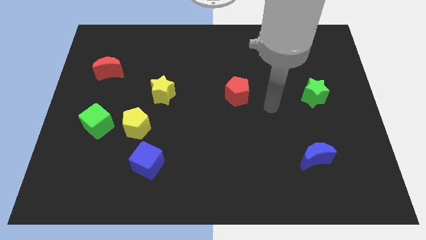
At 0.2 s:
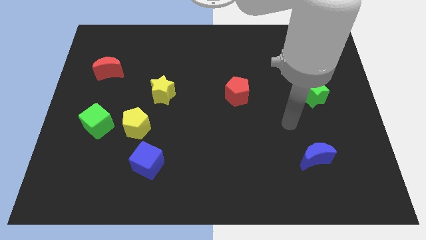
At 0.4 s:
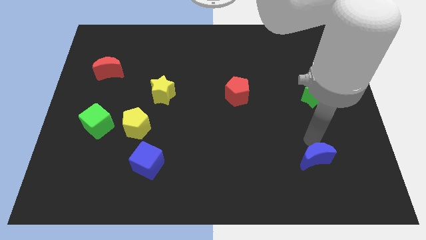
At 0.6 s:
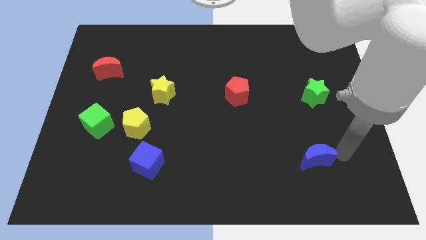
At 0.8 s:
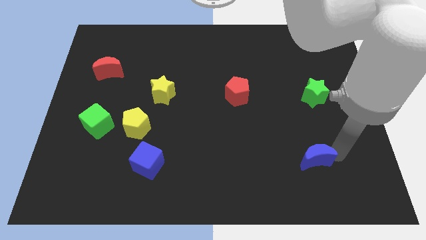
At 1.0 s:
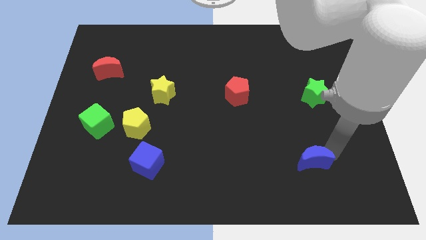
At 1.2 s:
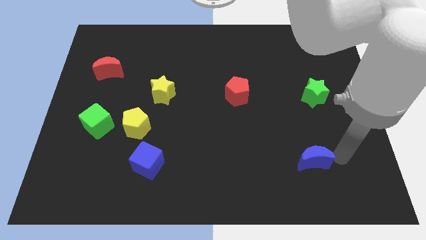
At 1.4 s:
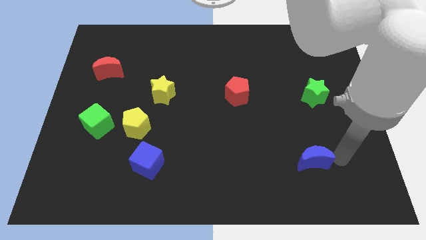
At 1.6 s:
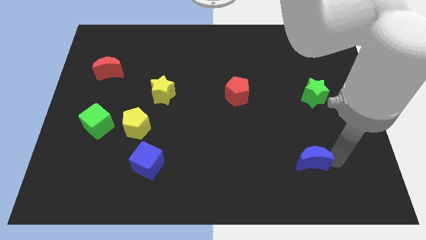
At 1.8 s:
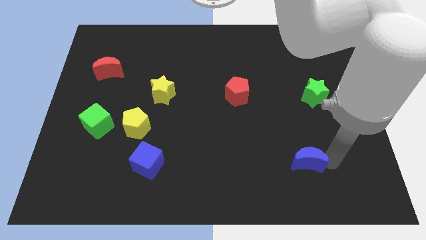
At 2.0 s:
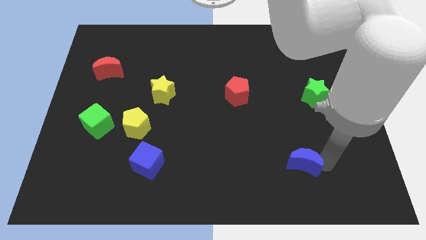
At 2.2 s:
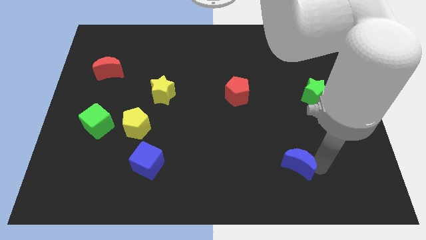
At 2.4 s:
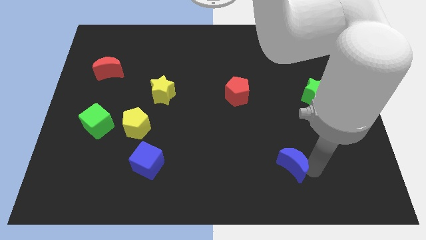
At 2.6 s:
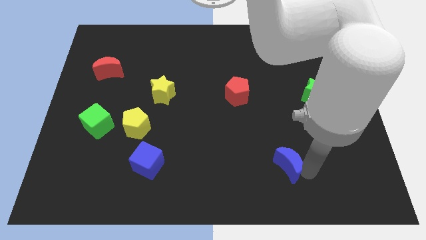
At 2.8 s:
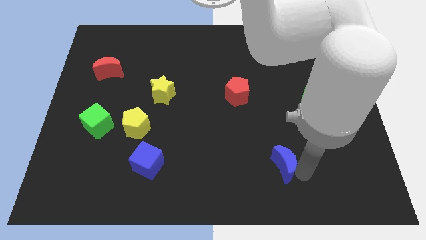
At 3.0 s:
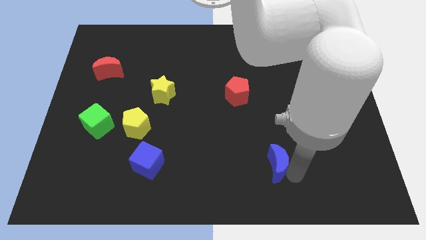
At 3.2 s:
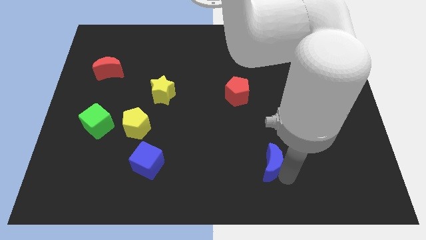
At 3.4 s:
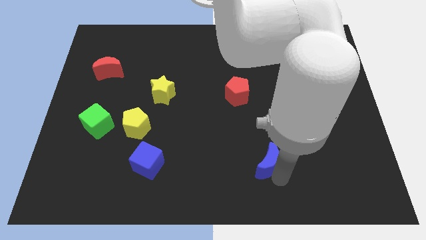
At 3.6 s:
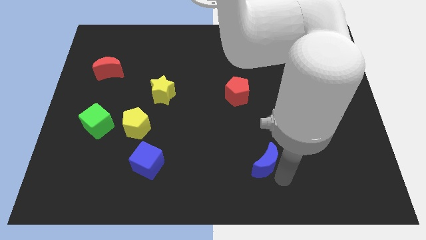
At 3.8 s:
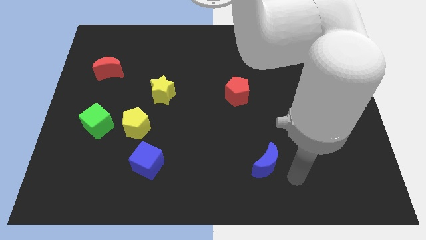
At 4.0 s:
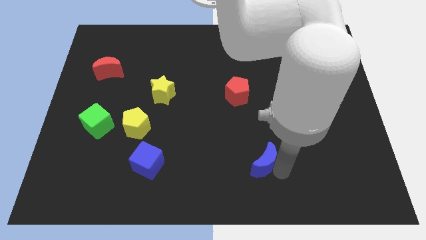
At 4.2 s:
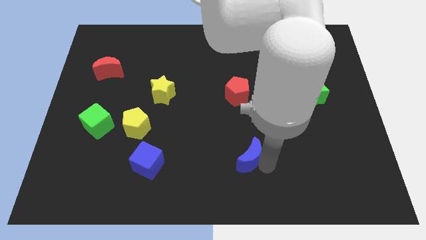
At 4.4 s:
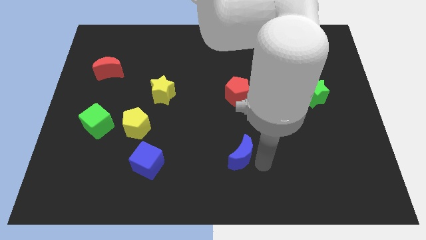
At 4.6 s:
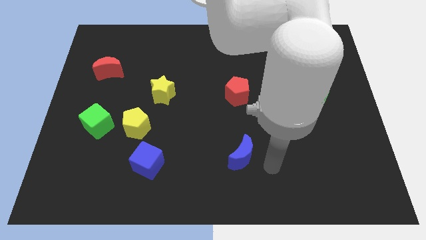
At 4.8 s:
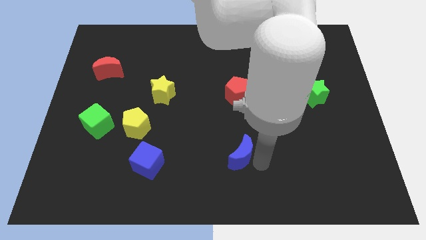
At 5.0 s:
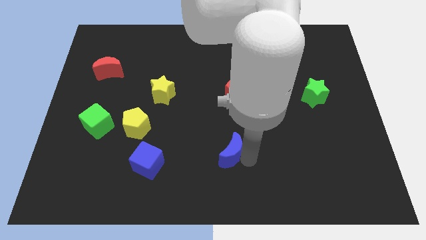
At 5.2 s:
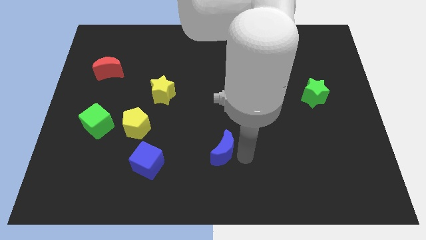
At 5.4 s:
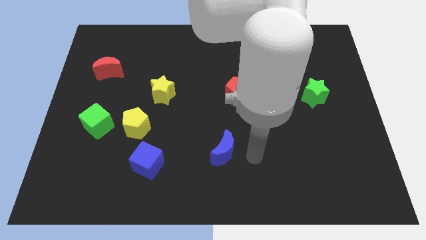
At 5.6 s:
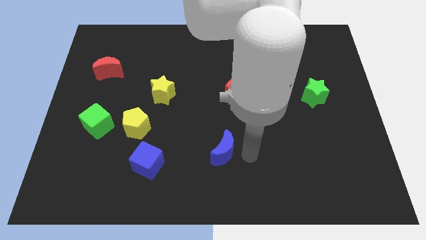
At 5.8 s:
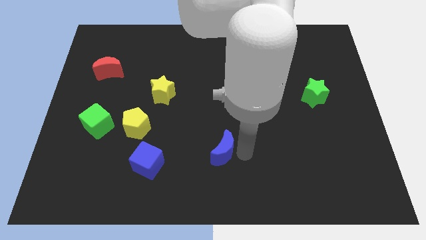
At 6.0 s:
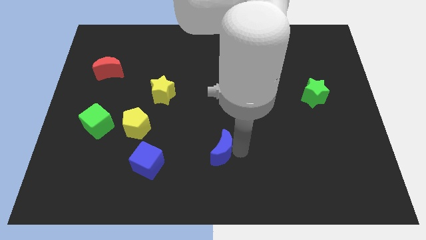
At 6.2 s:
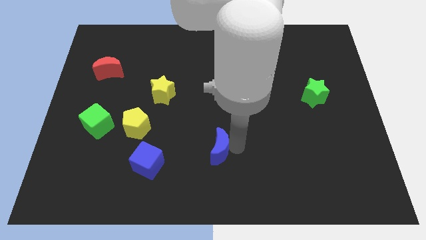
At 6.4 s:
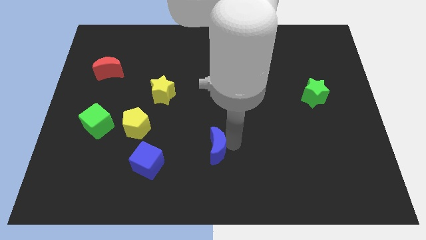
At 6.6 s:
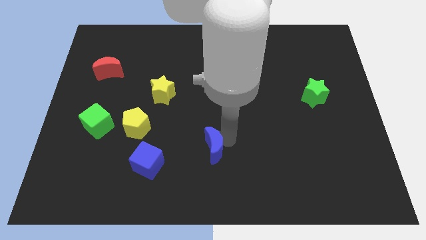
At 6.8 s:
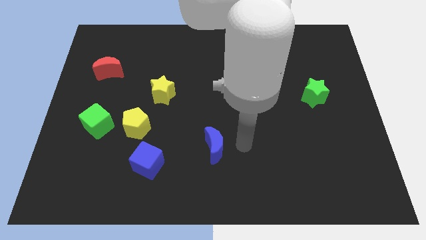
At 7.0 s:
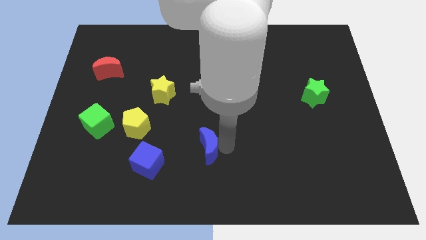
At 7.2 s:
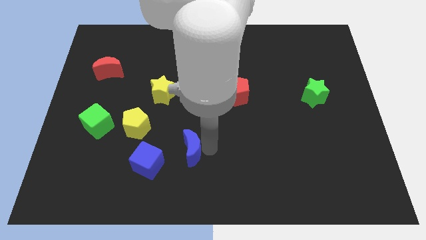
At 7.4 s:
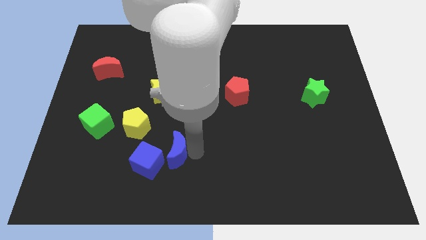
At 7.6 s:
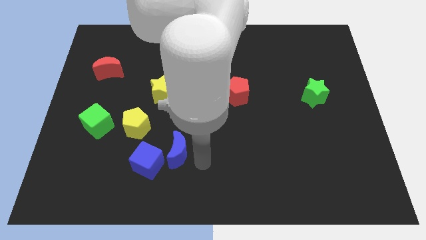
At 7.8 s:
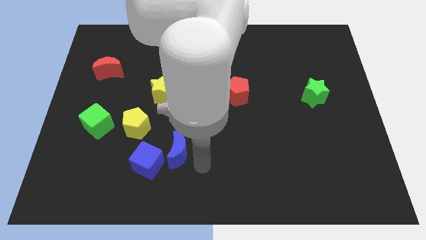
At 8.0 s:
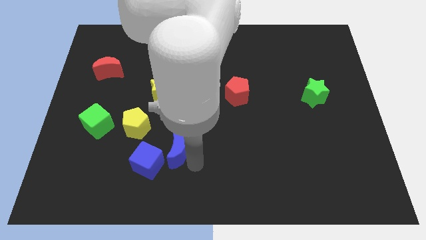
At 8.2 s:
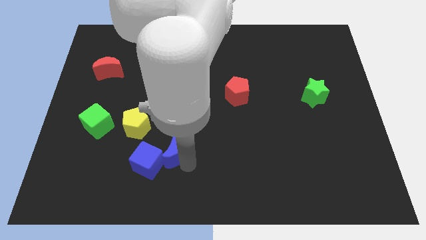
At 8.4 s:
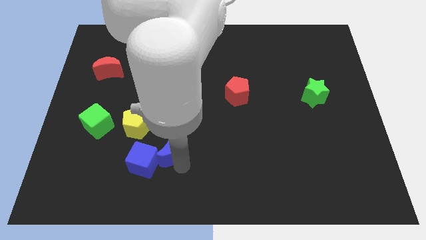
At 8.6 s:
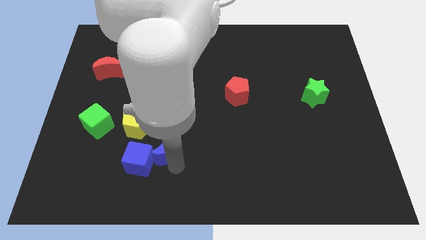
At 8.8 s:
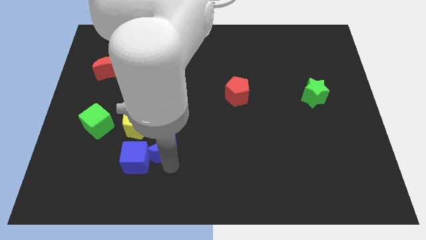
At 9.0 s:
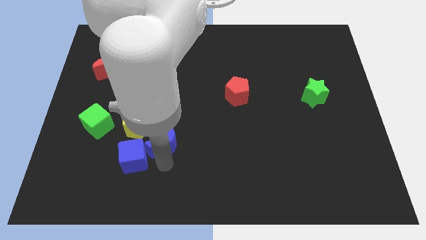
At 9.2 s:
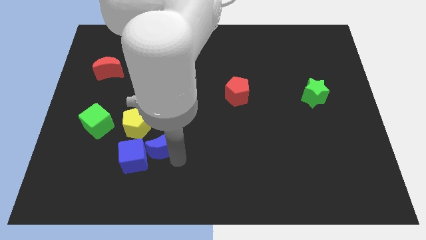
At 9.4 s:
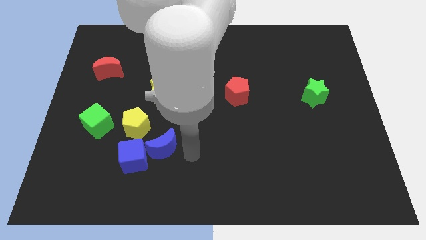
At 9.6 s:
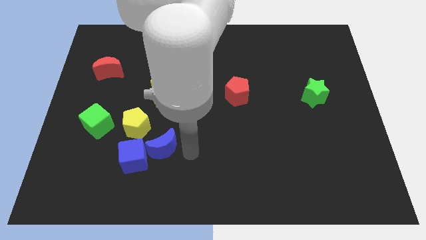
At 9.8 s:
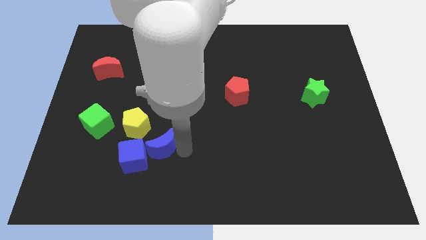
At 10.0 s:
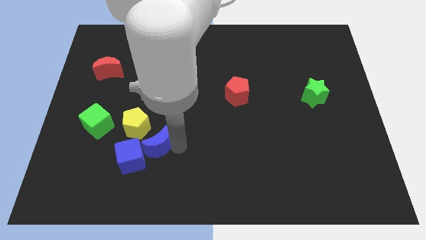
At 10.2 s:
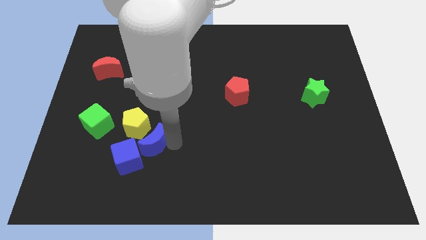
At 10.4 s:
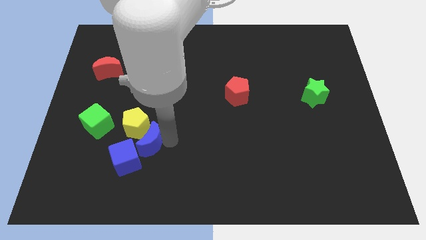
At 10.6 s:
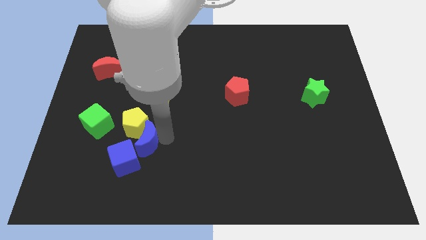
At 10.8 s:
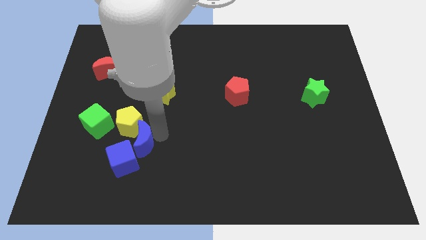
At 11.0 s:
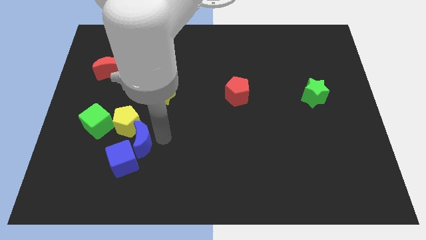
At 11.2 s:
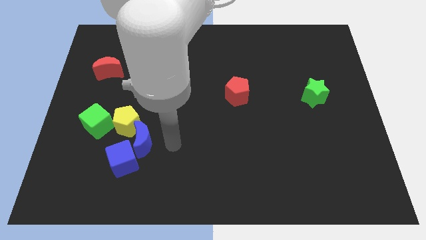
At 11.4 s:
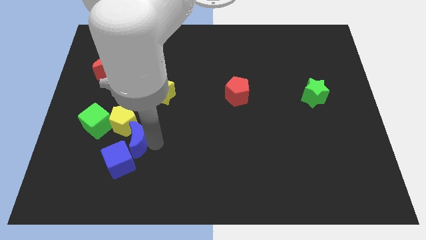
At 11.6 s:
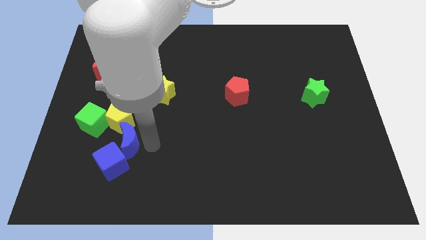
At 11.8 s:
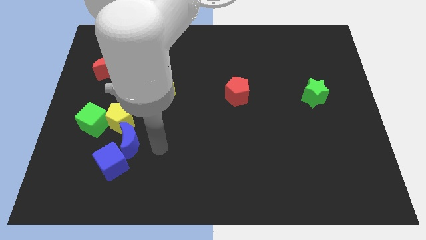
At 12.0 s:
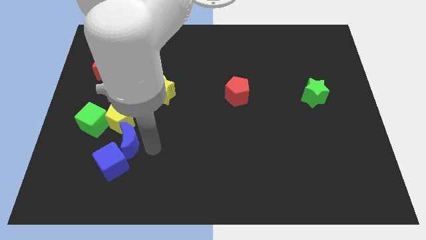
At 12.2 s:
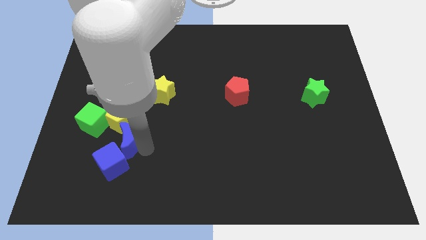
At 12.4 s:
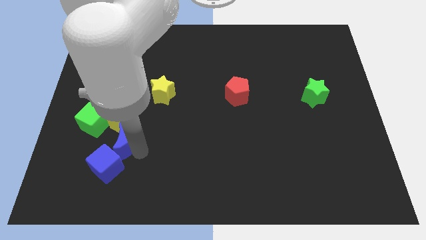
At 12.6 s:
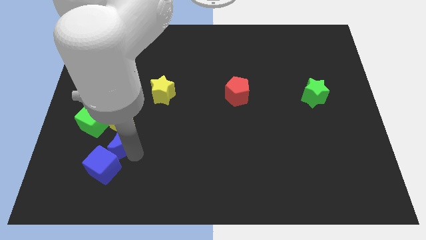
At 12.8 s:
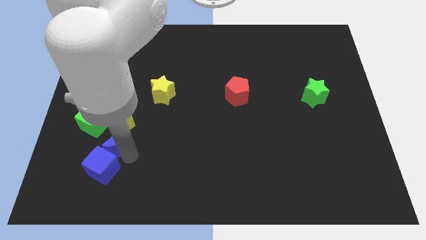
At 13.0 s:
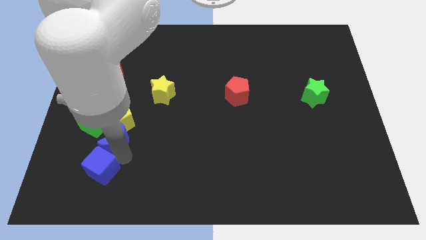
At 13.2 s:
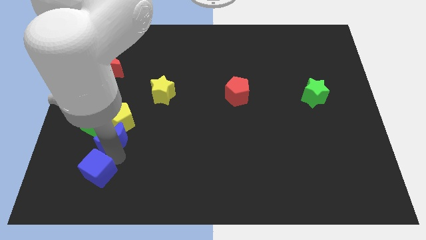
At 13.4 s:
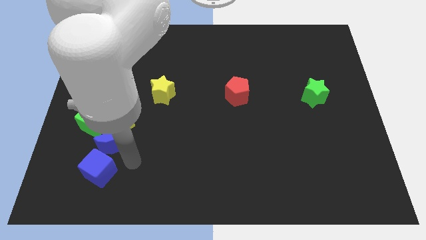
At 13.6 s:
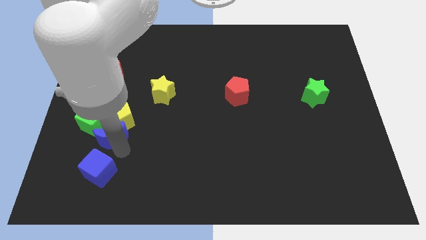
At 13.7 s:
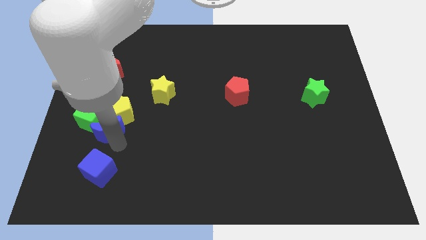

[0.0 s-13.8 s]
slide the blue moon close to the green cube

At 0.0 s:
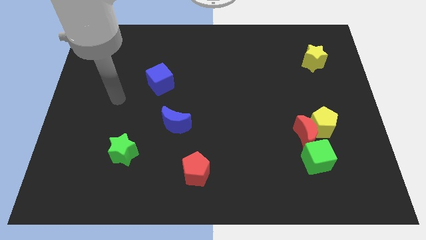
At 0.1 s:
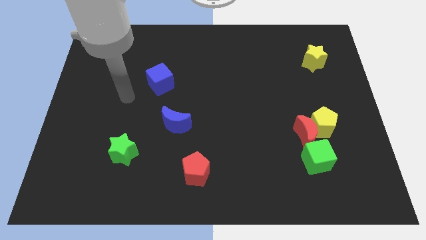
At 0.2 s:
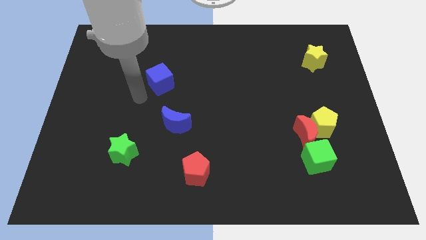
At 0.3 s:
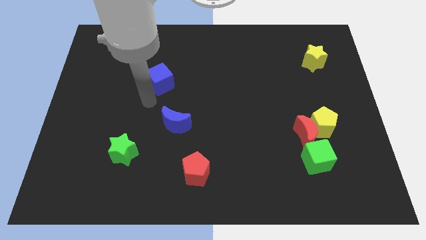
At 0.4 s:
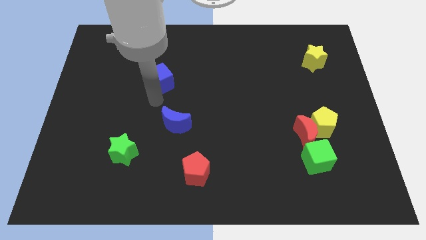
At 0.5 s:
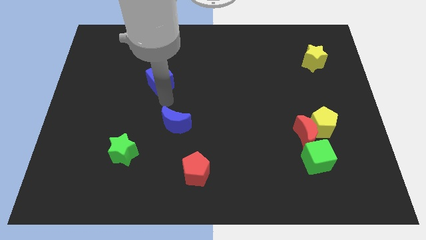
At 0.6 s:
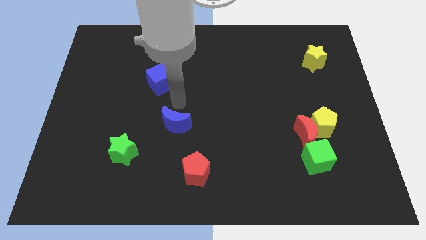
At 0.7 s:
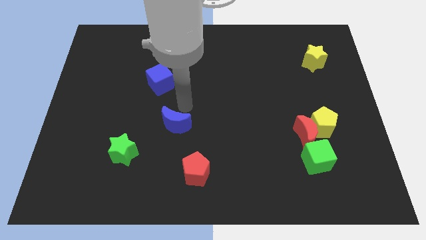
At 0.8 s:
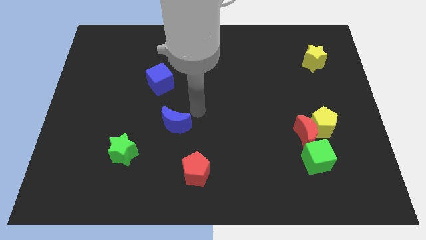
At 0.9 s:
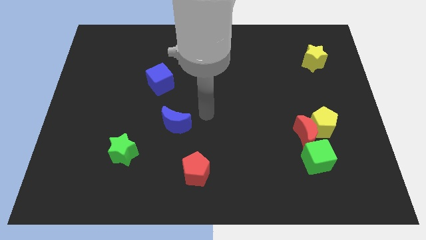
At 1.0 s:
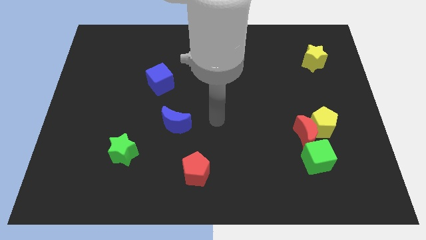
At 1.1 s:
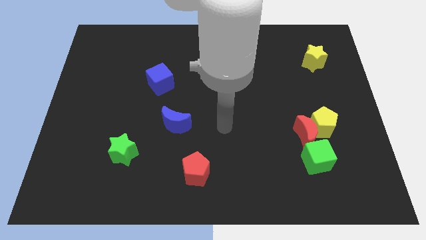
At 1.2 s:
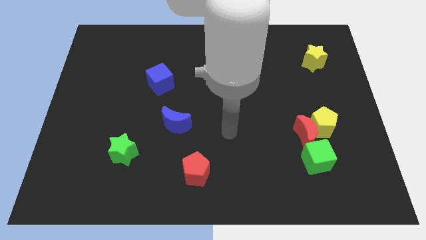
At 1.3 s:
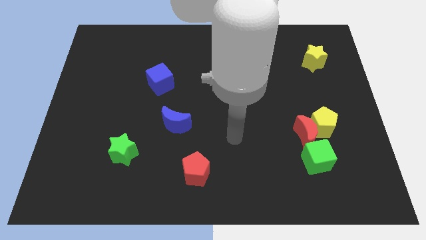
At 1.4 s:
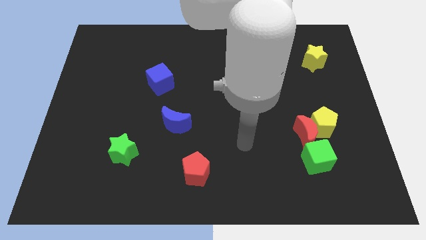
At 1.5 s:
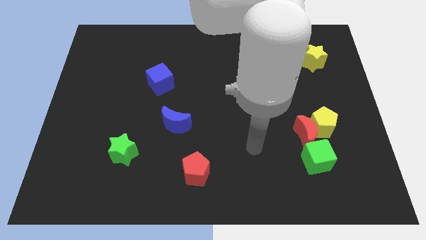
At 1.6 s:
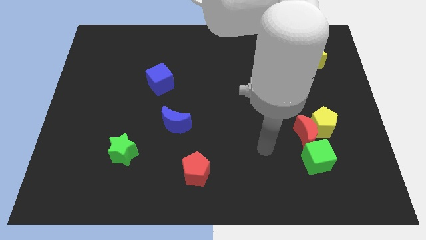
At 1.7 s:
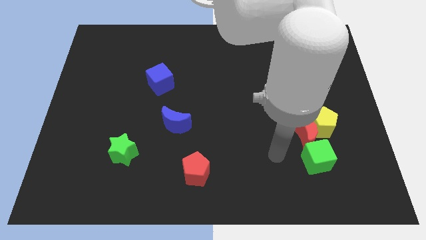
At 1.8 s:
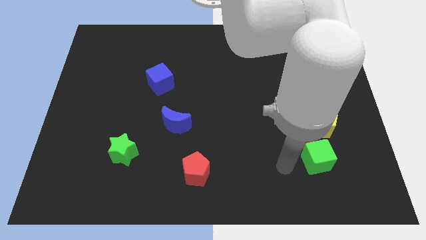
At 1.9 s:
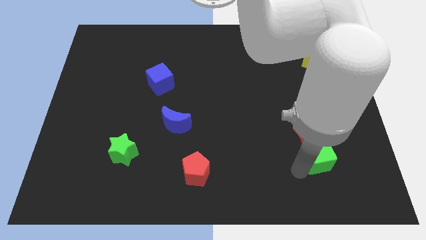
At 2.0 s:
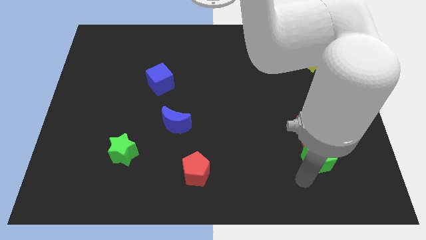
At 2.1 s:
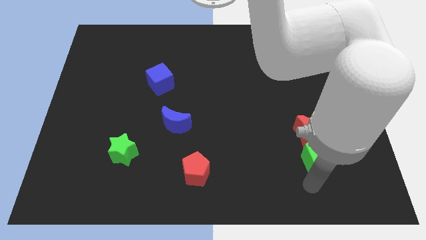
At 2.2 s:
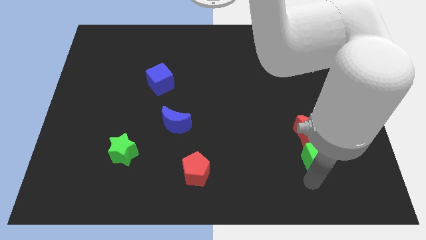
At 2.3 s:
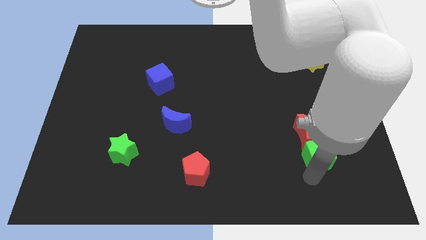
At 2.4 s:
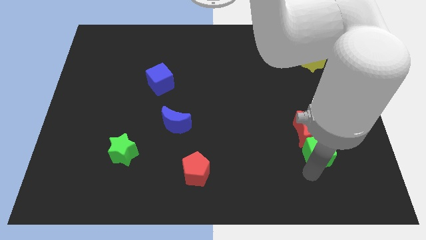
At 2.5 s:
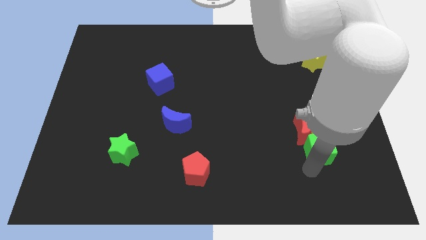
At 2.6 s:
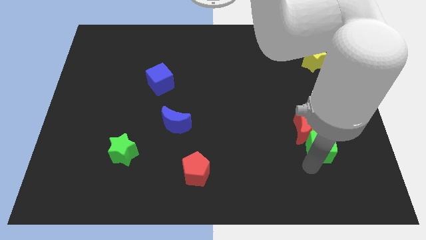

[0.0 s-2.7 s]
move the green cube close to the yellow pentagon
